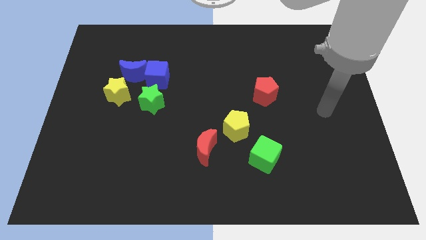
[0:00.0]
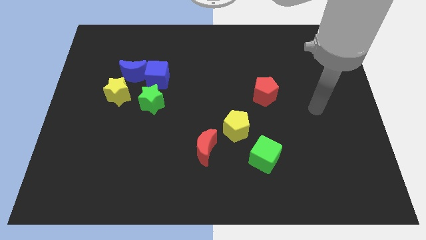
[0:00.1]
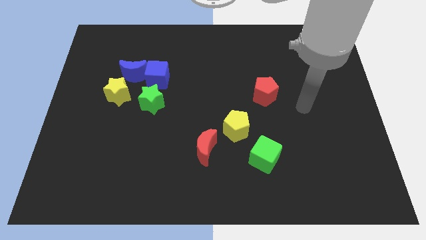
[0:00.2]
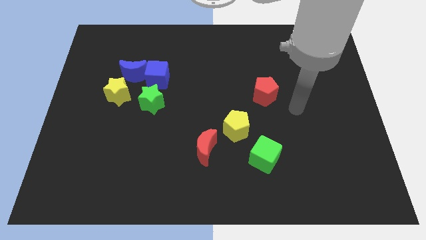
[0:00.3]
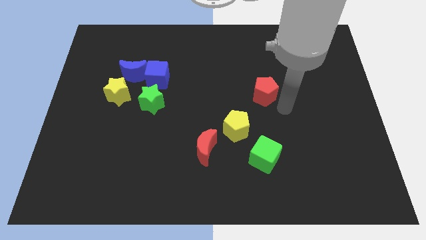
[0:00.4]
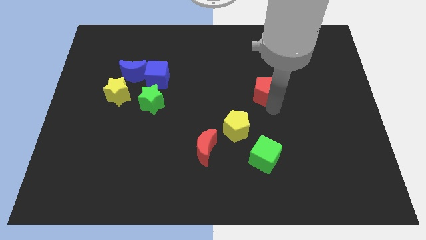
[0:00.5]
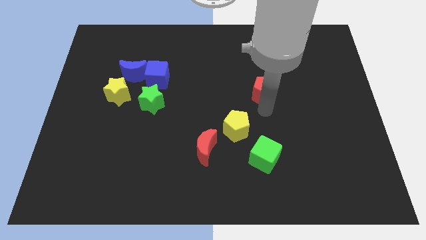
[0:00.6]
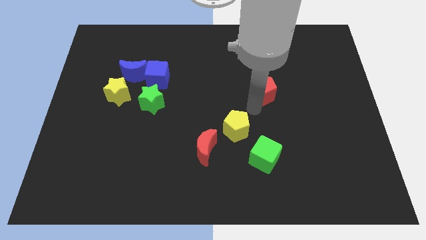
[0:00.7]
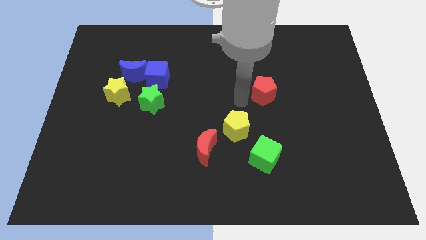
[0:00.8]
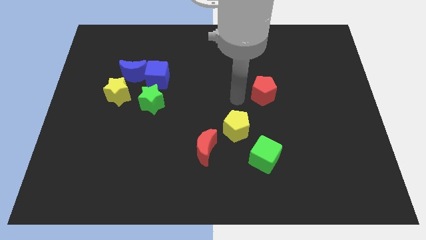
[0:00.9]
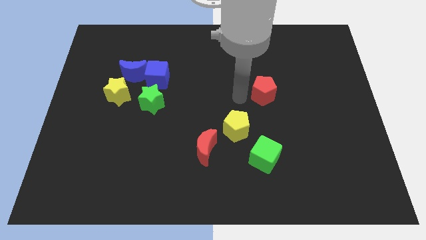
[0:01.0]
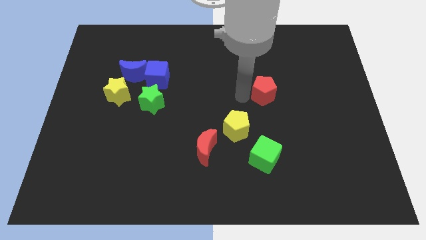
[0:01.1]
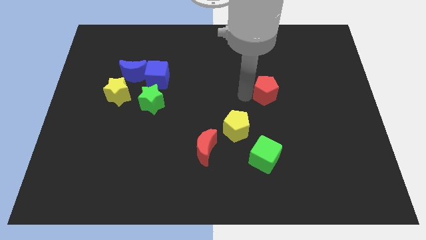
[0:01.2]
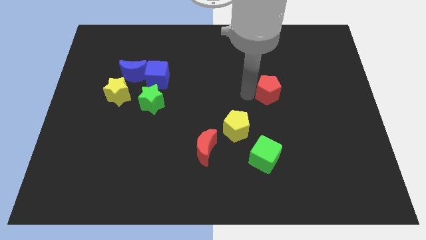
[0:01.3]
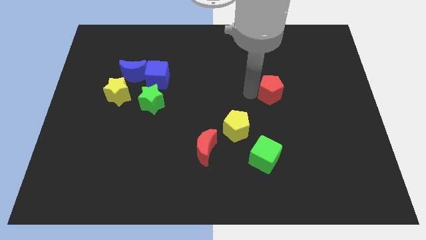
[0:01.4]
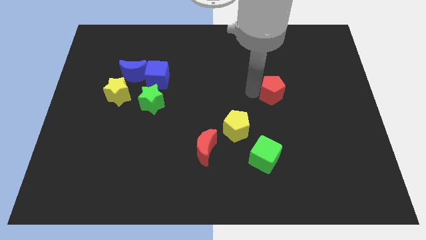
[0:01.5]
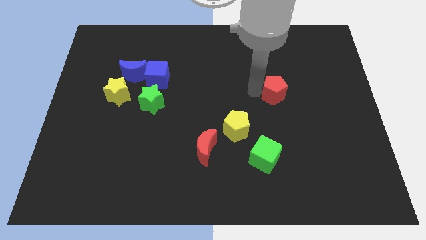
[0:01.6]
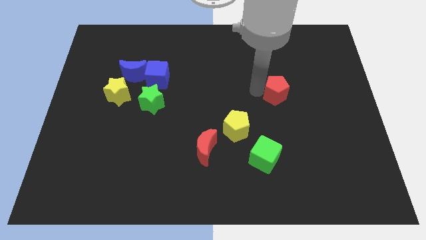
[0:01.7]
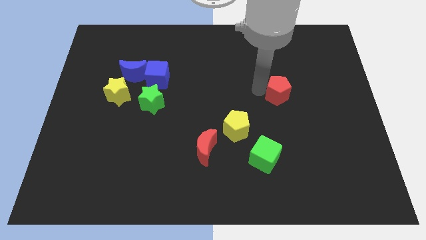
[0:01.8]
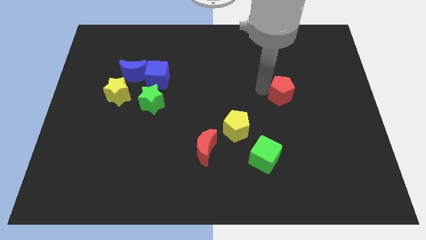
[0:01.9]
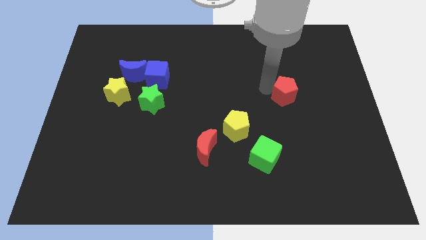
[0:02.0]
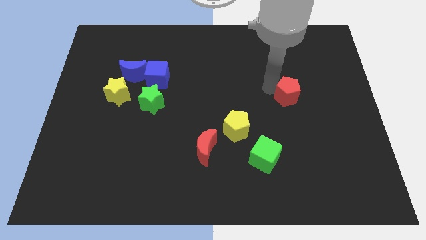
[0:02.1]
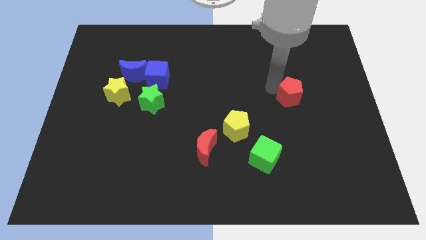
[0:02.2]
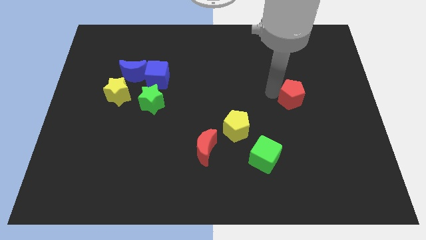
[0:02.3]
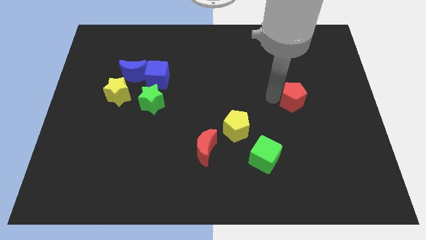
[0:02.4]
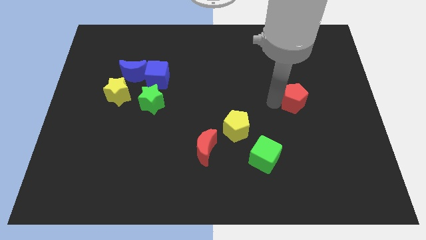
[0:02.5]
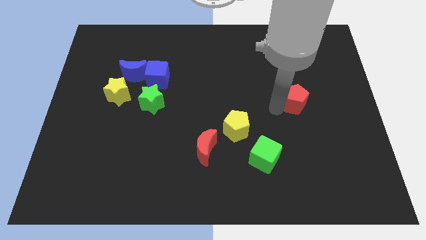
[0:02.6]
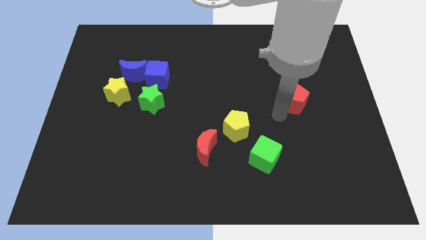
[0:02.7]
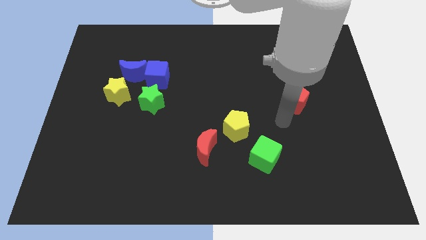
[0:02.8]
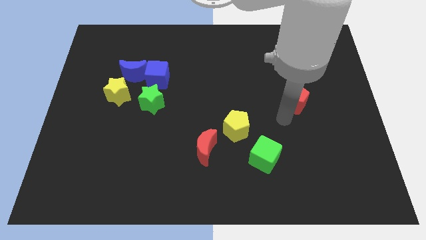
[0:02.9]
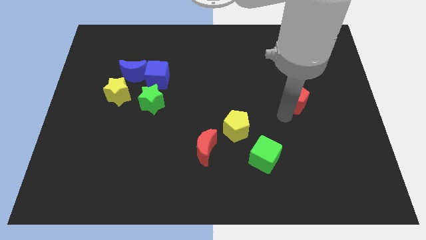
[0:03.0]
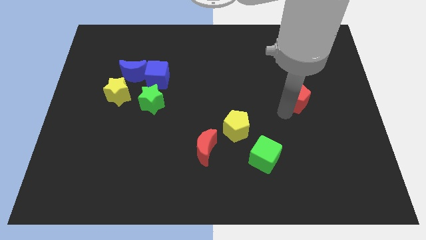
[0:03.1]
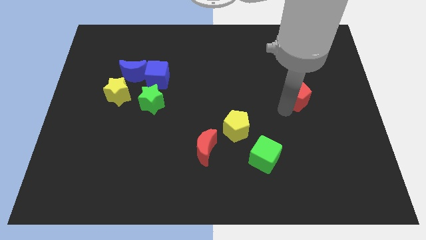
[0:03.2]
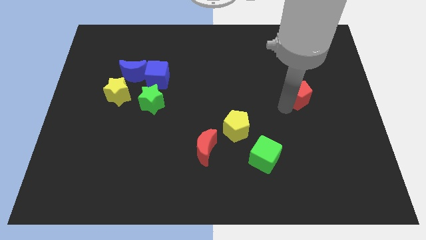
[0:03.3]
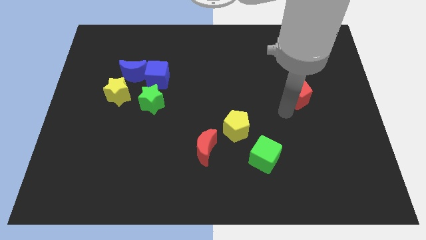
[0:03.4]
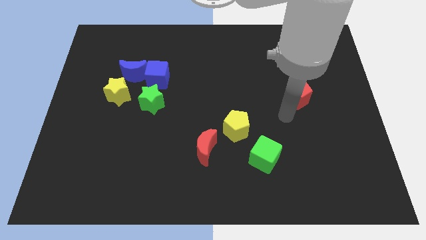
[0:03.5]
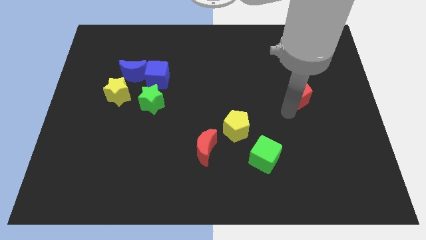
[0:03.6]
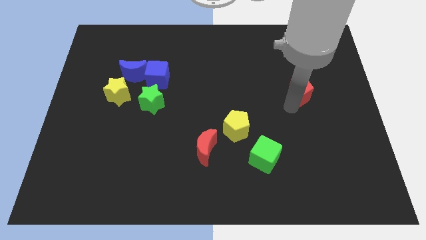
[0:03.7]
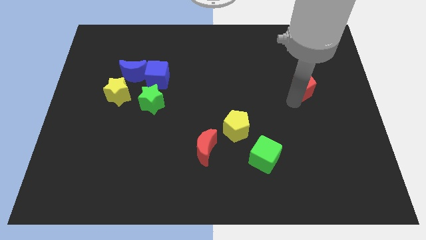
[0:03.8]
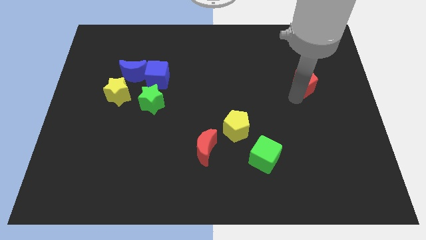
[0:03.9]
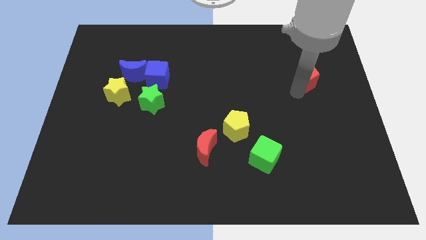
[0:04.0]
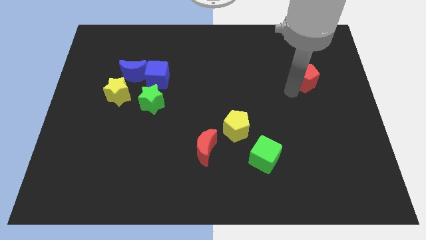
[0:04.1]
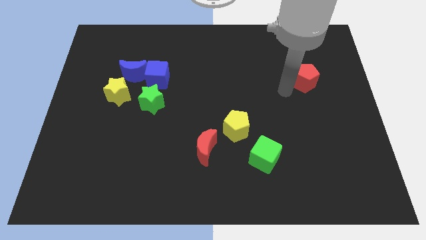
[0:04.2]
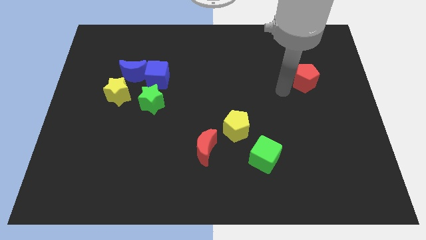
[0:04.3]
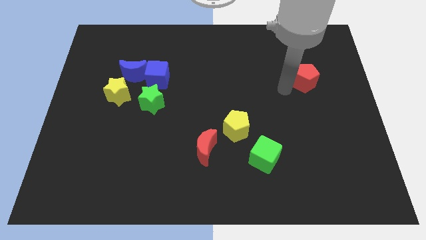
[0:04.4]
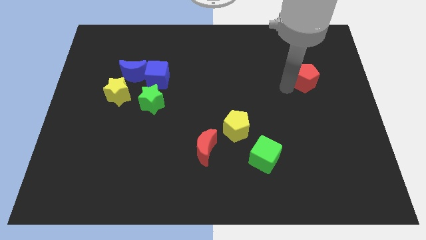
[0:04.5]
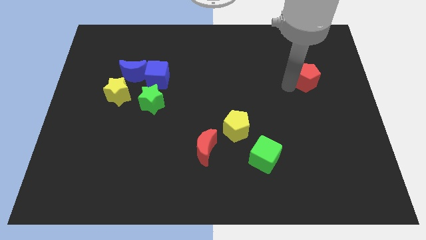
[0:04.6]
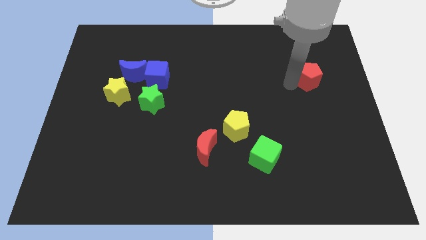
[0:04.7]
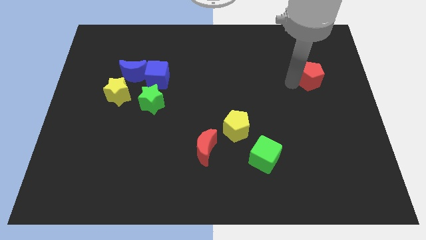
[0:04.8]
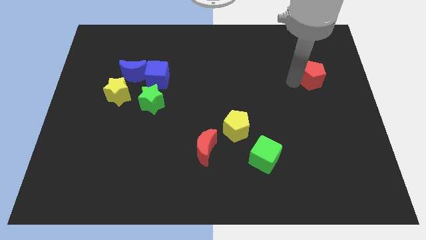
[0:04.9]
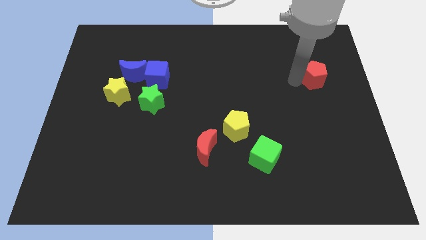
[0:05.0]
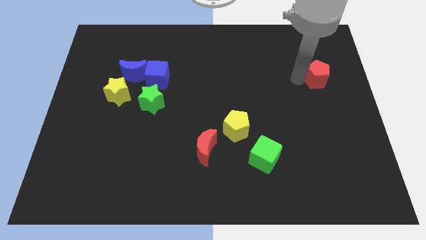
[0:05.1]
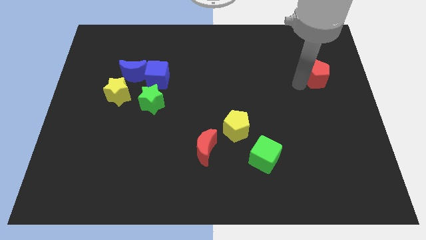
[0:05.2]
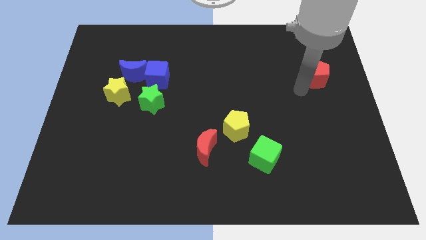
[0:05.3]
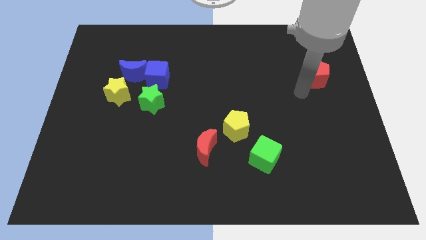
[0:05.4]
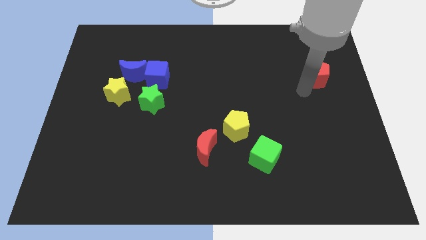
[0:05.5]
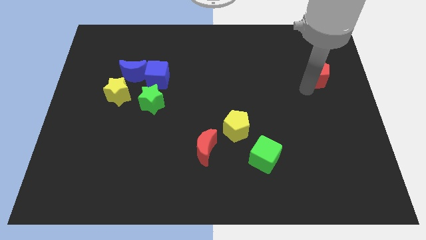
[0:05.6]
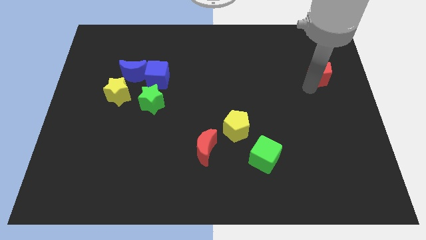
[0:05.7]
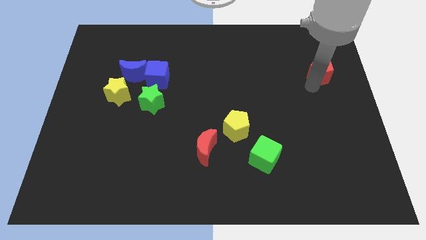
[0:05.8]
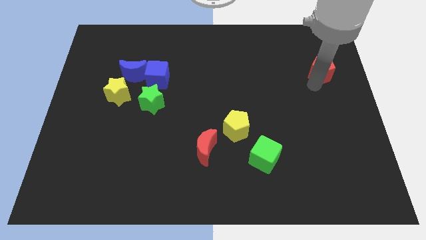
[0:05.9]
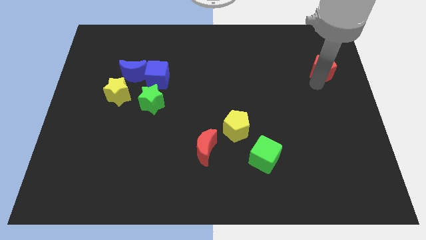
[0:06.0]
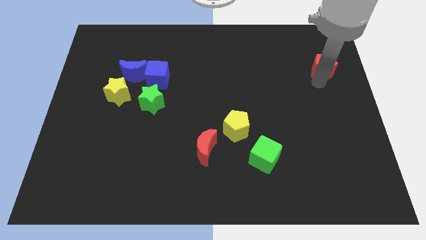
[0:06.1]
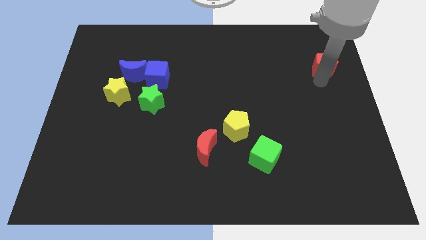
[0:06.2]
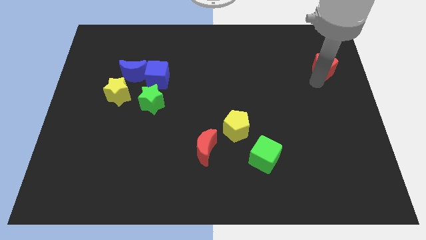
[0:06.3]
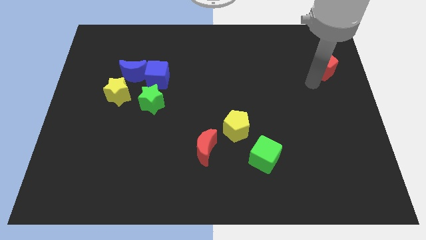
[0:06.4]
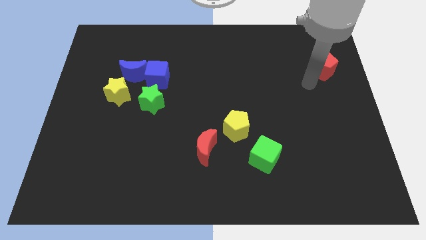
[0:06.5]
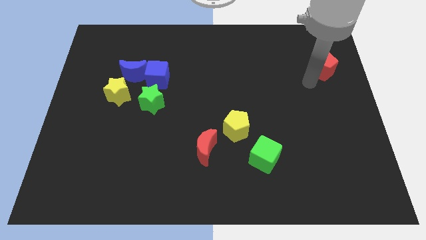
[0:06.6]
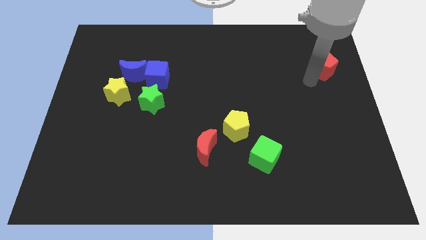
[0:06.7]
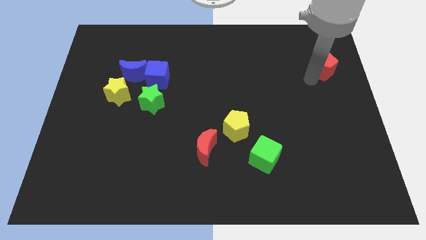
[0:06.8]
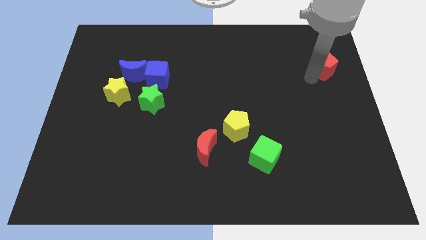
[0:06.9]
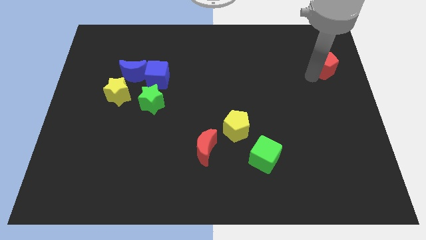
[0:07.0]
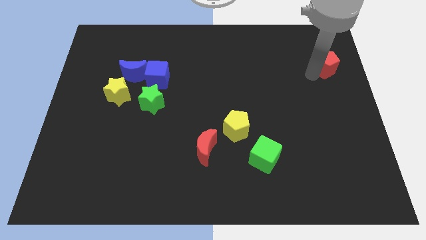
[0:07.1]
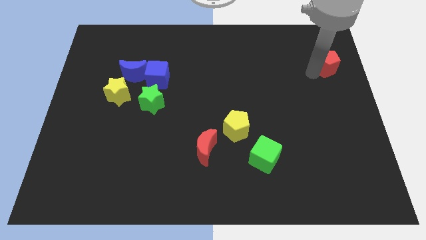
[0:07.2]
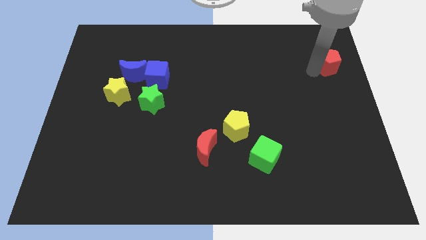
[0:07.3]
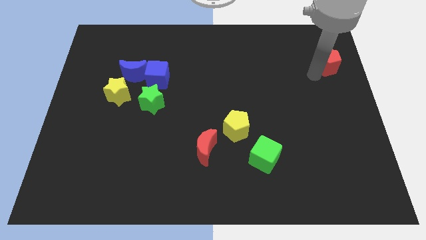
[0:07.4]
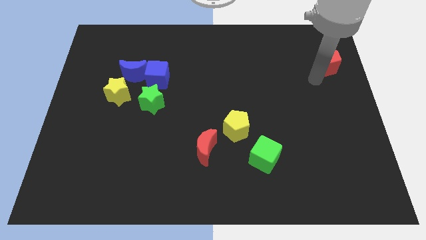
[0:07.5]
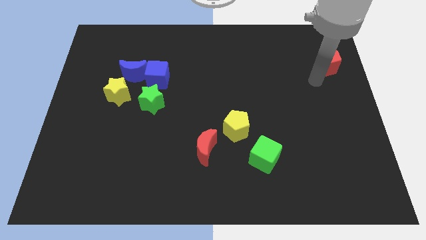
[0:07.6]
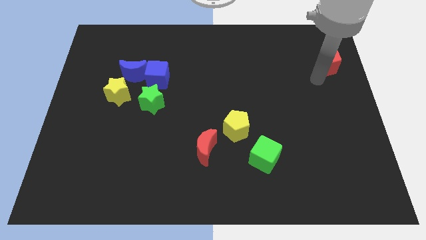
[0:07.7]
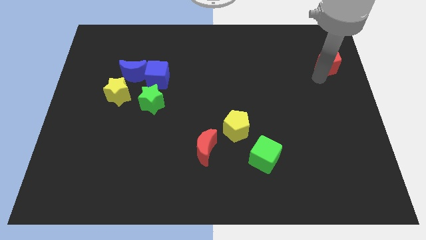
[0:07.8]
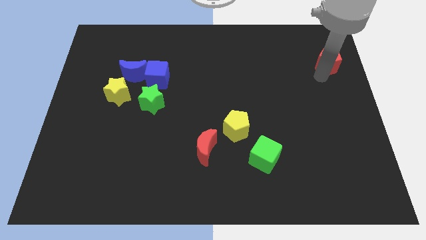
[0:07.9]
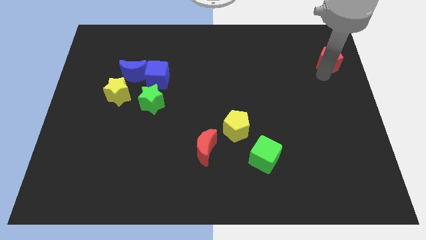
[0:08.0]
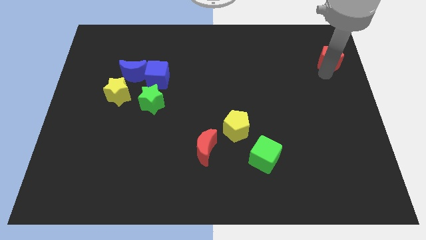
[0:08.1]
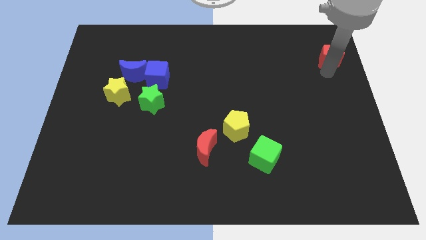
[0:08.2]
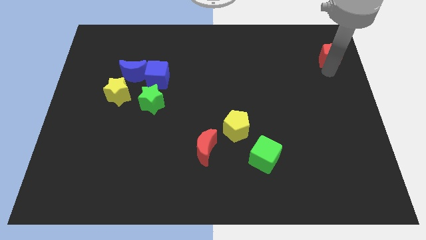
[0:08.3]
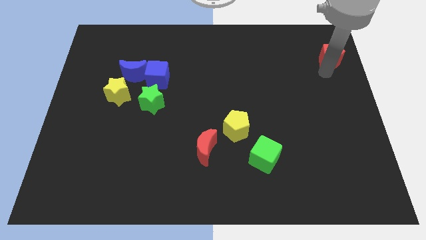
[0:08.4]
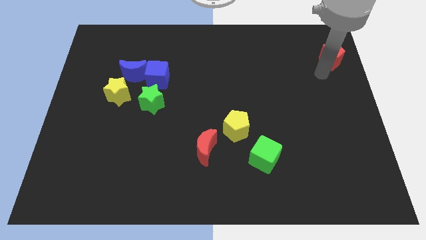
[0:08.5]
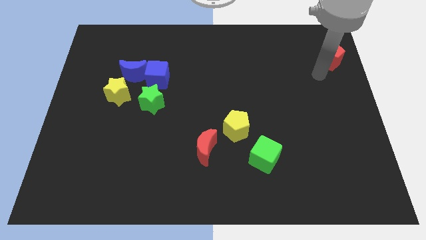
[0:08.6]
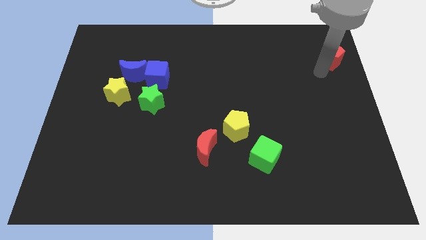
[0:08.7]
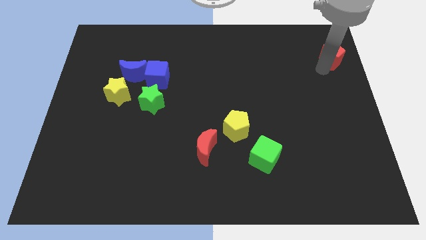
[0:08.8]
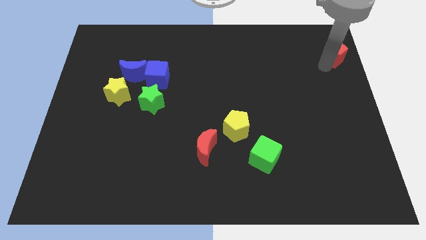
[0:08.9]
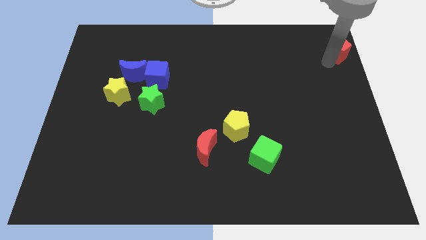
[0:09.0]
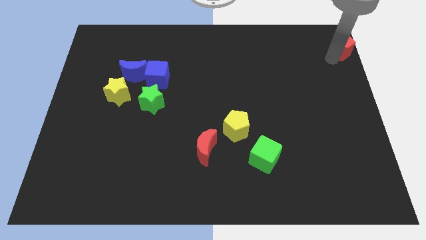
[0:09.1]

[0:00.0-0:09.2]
put the red pentagon to the upper right corner
